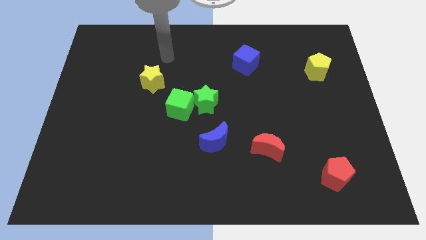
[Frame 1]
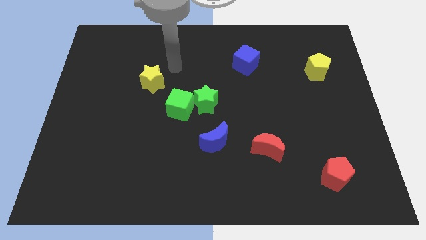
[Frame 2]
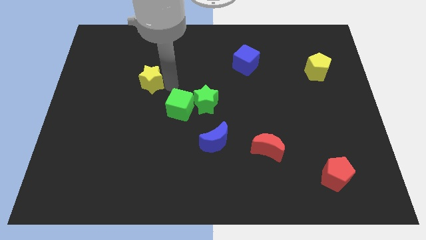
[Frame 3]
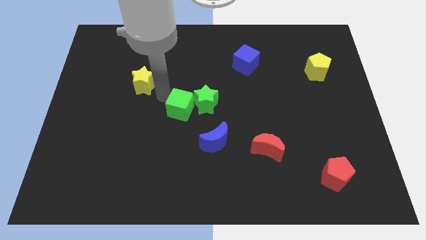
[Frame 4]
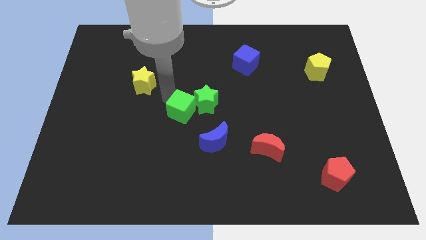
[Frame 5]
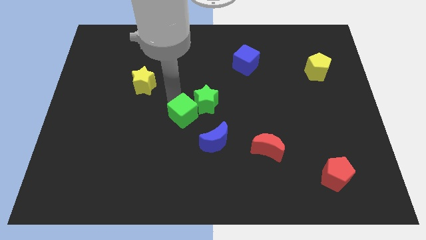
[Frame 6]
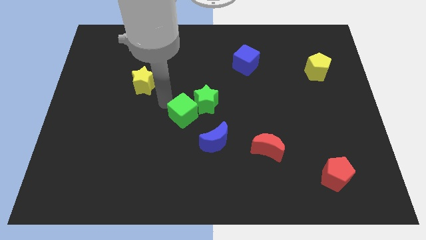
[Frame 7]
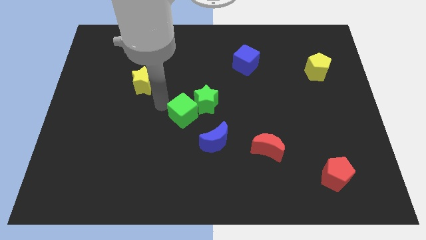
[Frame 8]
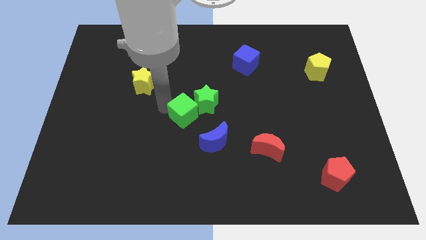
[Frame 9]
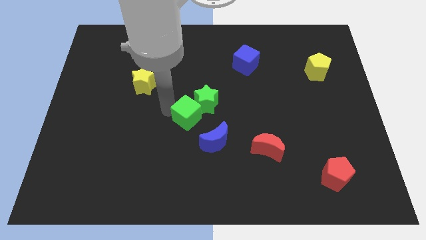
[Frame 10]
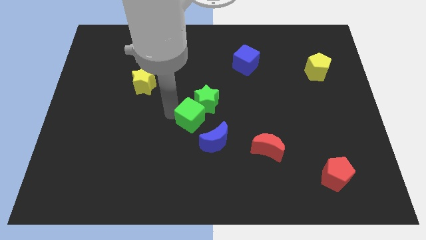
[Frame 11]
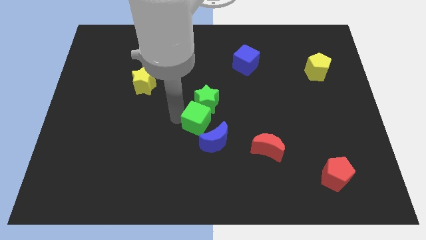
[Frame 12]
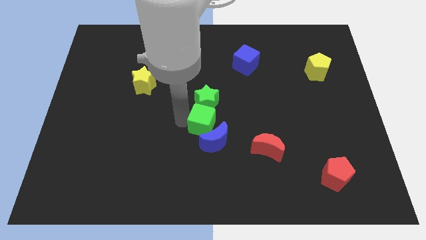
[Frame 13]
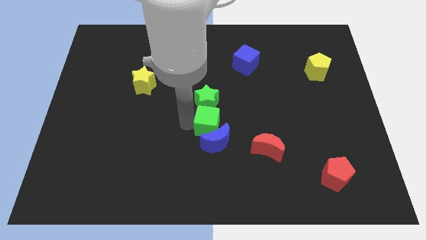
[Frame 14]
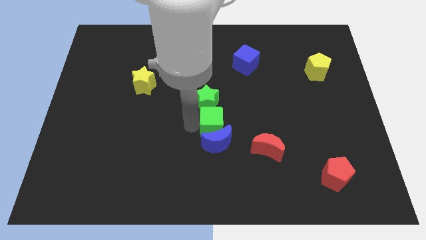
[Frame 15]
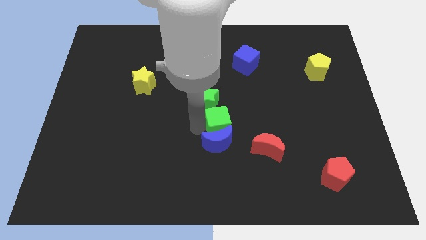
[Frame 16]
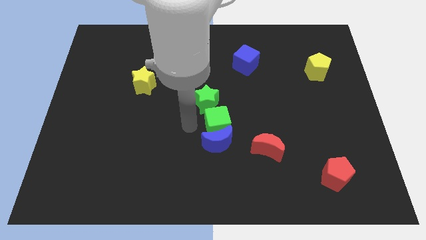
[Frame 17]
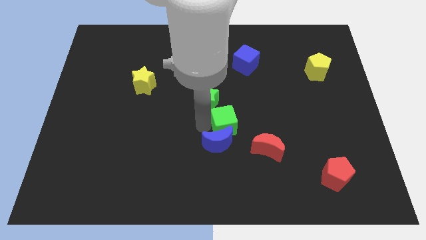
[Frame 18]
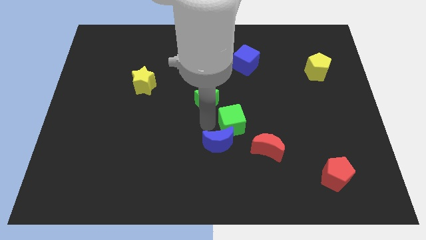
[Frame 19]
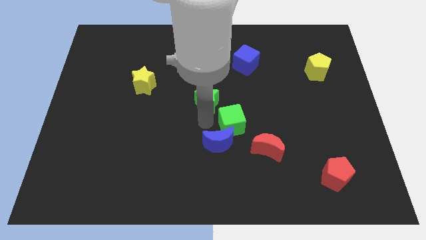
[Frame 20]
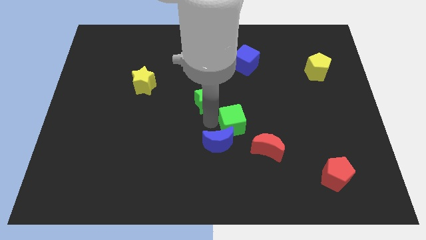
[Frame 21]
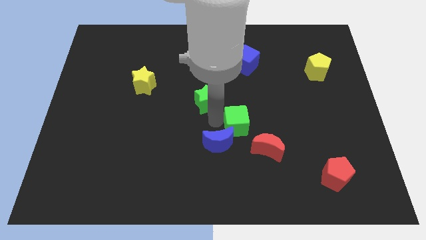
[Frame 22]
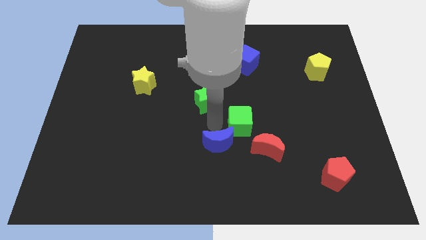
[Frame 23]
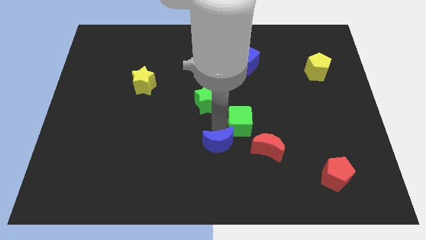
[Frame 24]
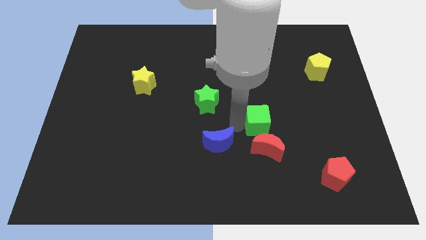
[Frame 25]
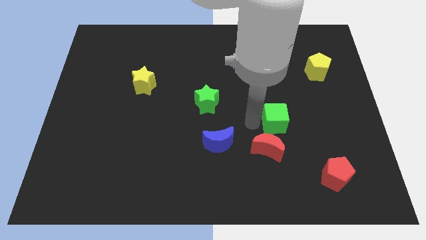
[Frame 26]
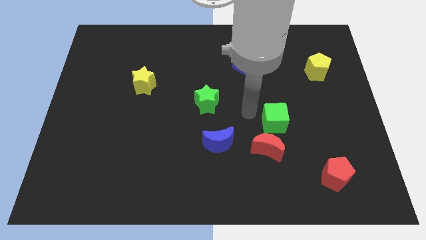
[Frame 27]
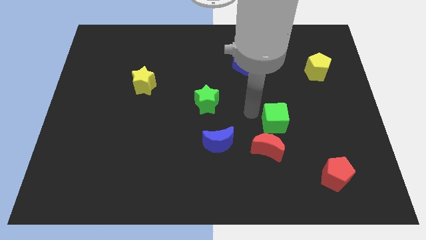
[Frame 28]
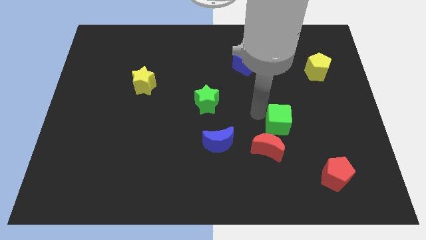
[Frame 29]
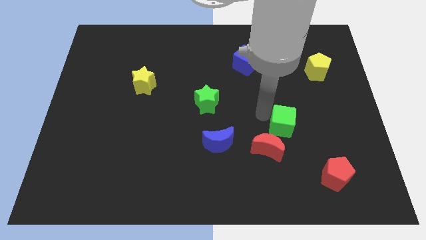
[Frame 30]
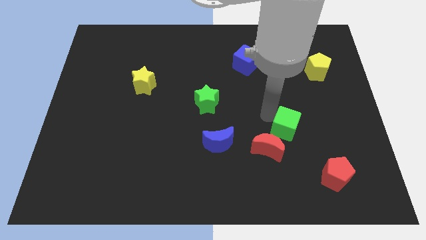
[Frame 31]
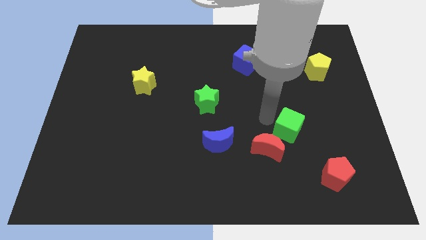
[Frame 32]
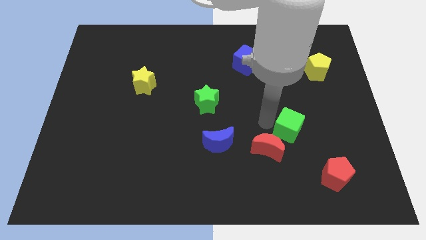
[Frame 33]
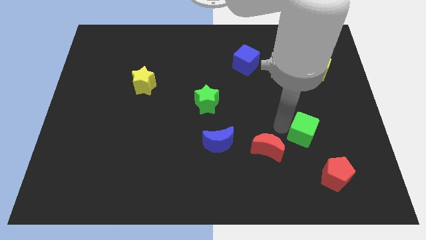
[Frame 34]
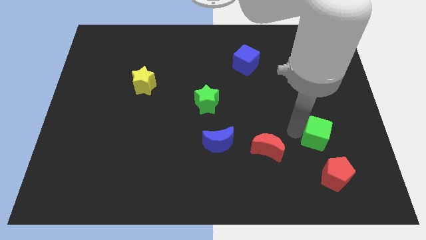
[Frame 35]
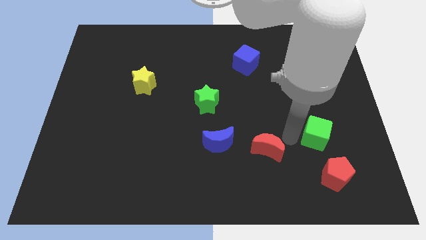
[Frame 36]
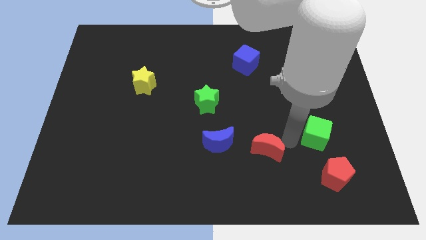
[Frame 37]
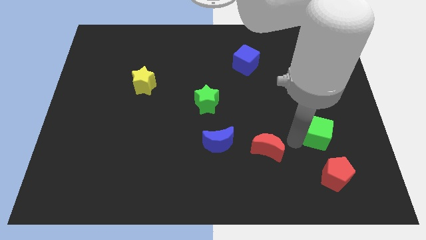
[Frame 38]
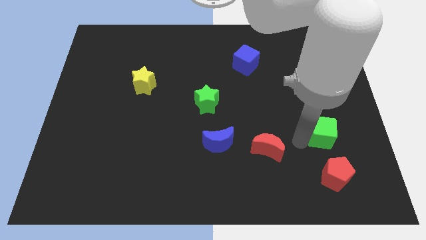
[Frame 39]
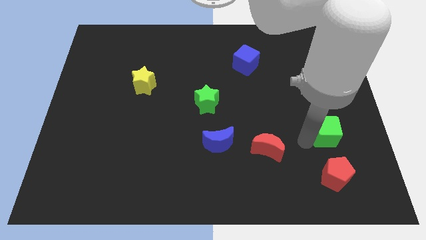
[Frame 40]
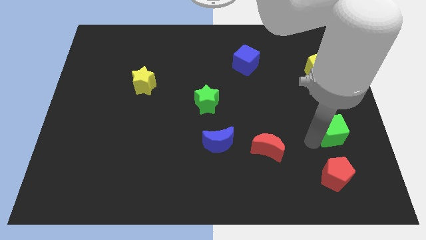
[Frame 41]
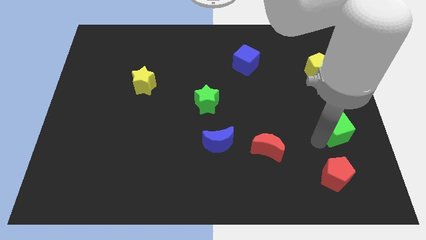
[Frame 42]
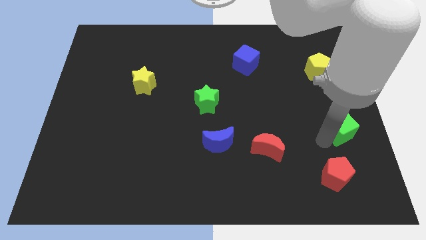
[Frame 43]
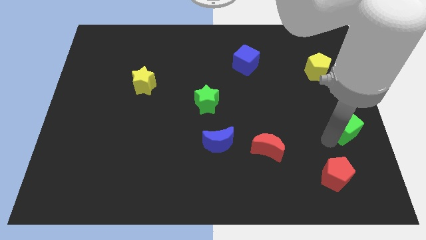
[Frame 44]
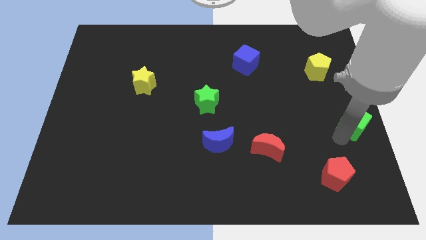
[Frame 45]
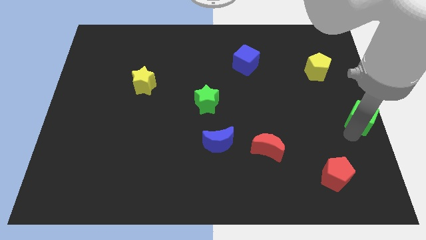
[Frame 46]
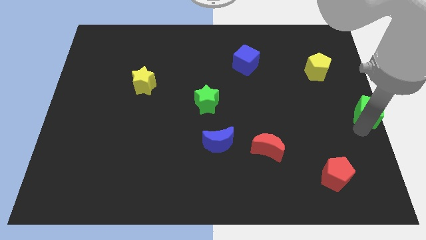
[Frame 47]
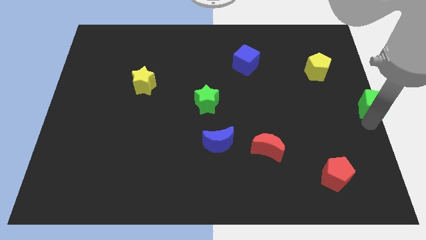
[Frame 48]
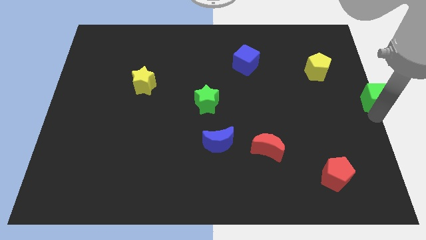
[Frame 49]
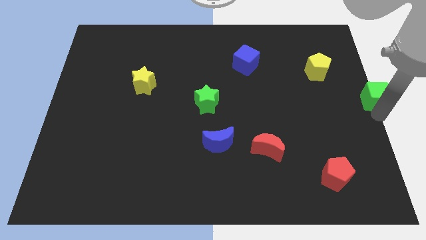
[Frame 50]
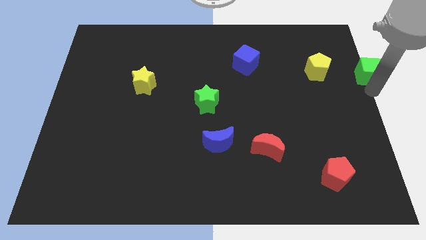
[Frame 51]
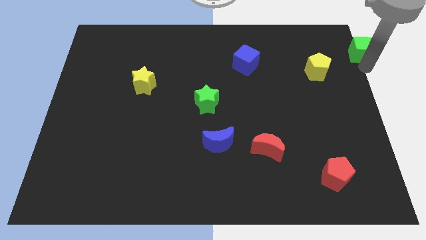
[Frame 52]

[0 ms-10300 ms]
put the green cube to the top right of the board

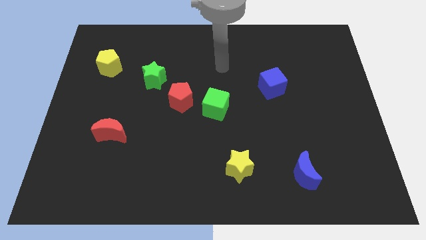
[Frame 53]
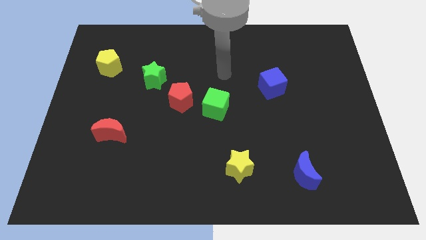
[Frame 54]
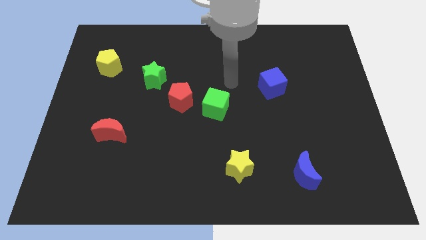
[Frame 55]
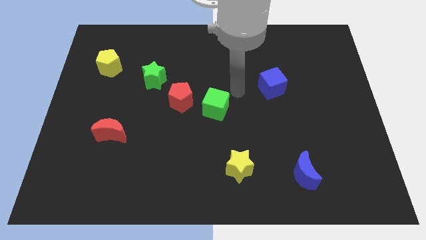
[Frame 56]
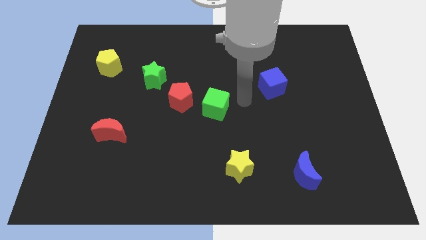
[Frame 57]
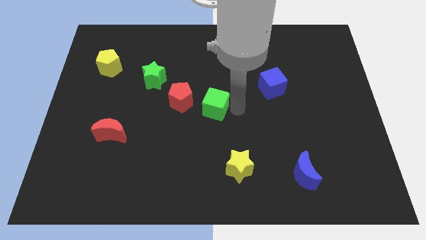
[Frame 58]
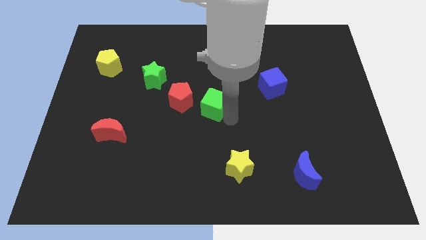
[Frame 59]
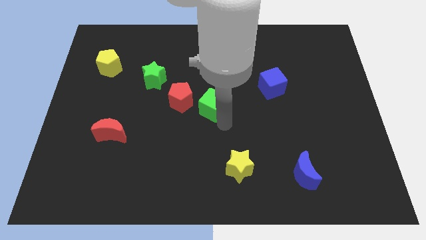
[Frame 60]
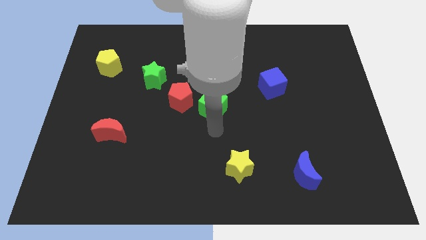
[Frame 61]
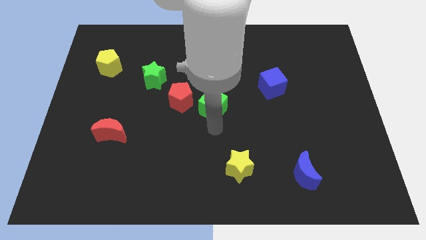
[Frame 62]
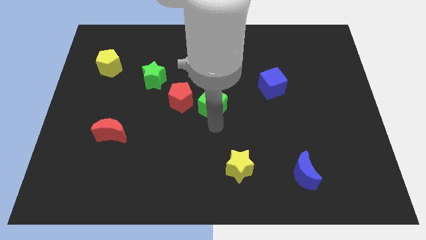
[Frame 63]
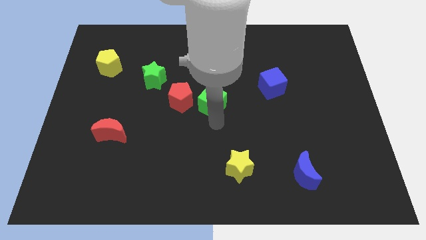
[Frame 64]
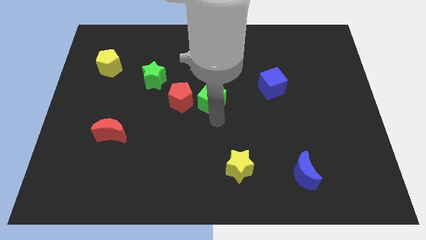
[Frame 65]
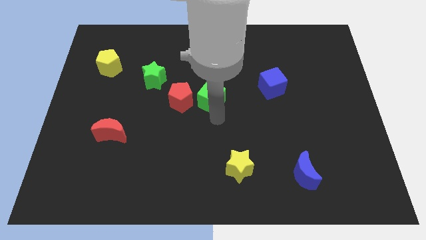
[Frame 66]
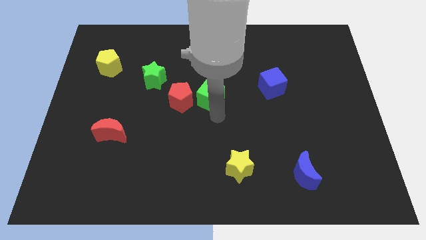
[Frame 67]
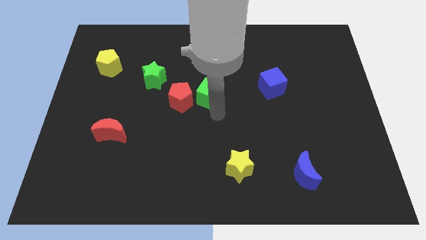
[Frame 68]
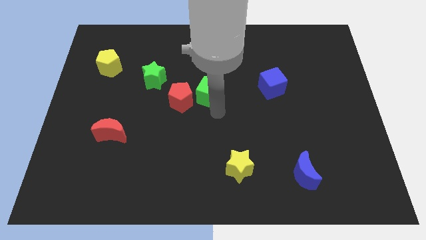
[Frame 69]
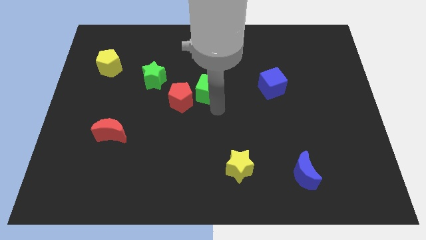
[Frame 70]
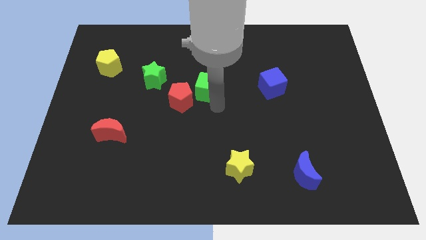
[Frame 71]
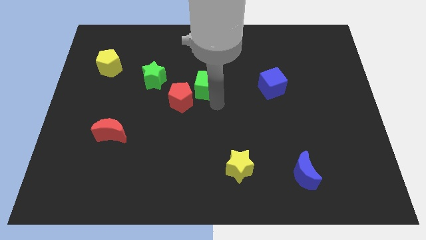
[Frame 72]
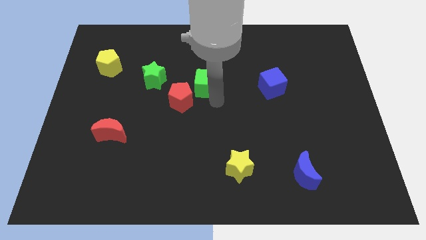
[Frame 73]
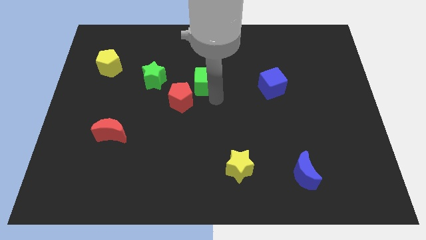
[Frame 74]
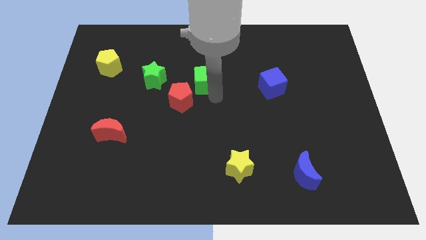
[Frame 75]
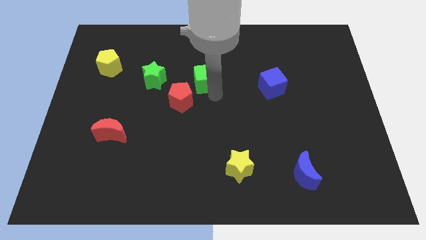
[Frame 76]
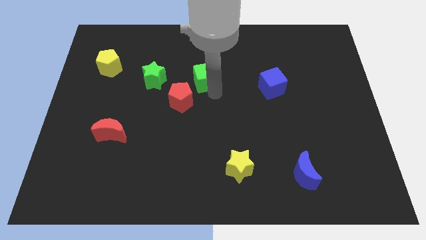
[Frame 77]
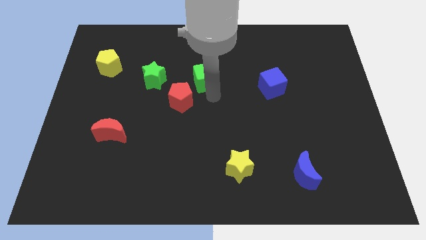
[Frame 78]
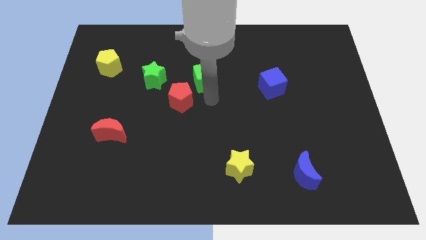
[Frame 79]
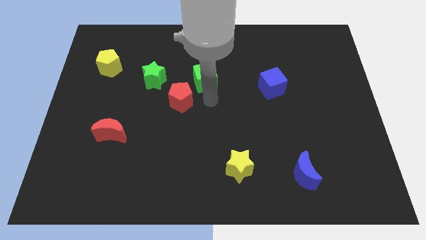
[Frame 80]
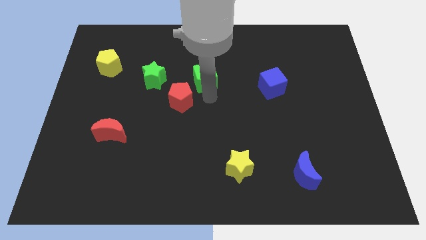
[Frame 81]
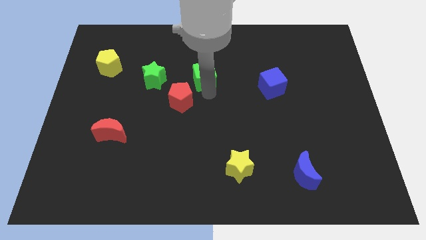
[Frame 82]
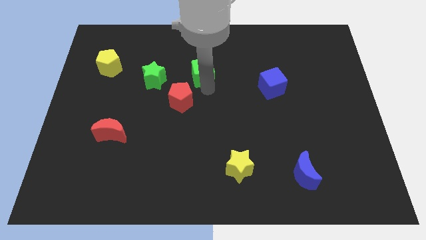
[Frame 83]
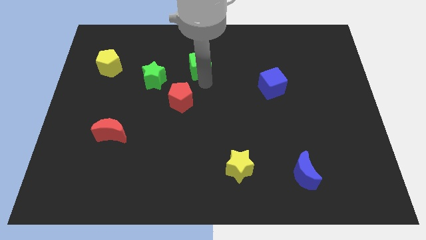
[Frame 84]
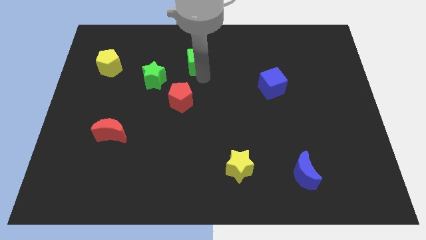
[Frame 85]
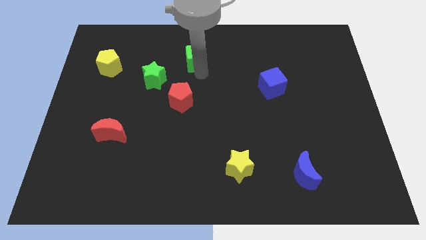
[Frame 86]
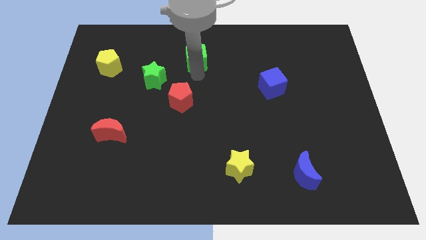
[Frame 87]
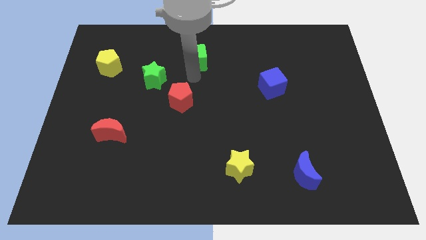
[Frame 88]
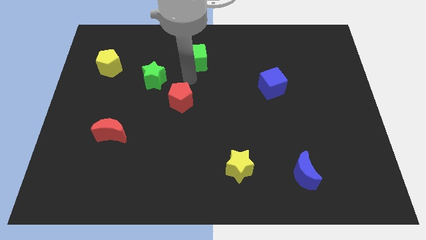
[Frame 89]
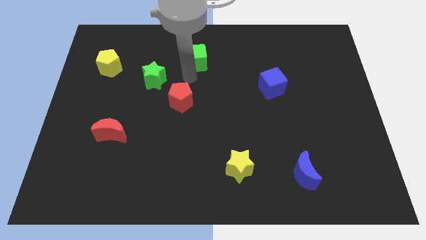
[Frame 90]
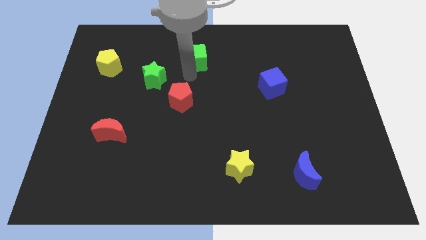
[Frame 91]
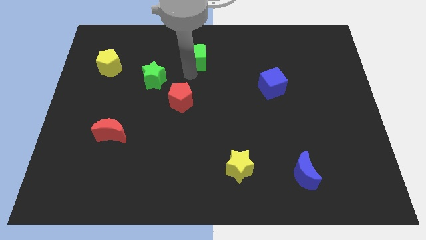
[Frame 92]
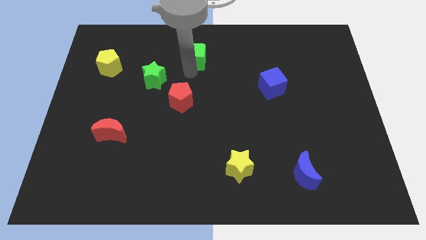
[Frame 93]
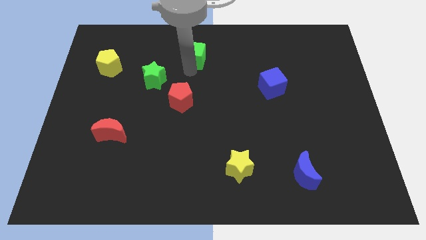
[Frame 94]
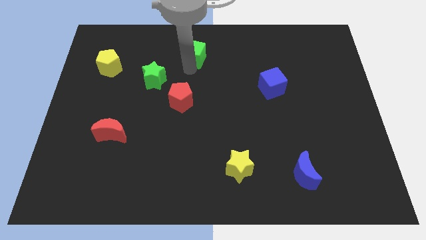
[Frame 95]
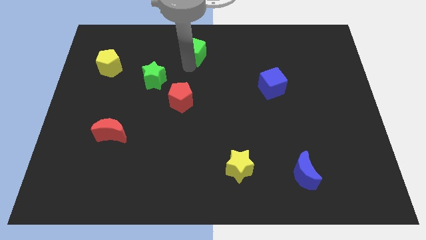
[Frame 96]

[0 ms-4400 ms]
put the green cube to the towards your base
